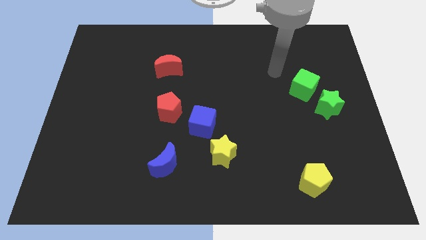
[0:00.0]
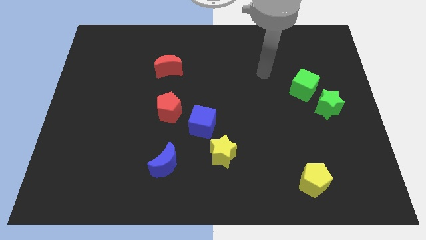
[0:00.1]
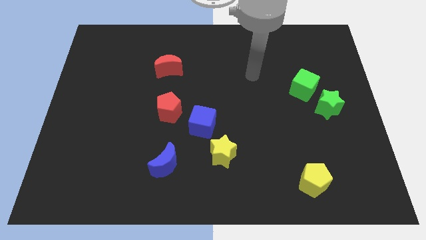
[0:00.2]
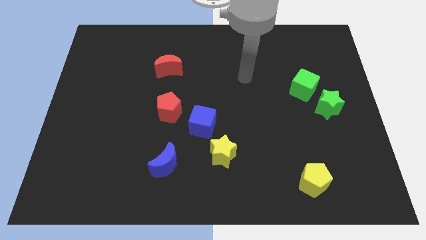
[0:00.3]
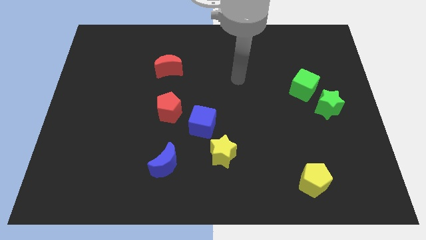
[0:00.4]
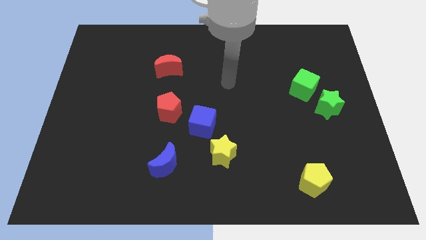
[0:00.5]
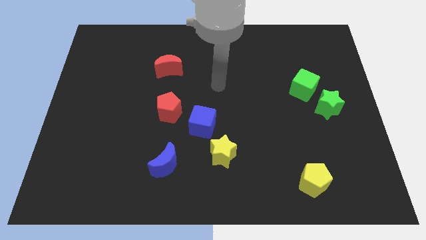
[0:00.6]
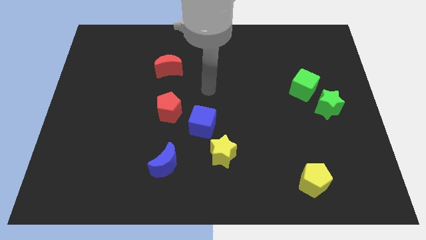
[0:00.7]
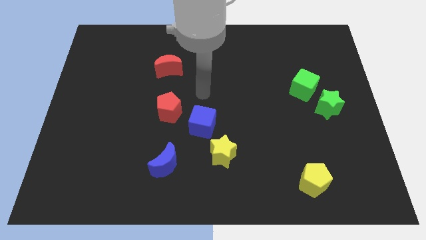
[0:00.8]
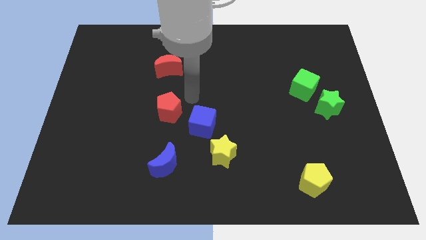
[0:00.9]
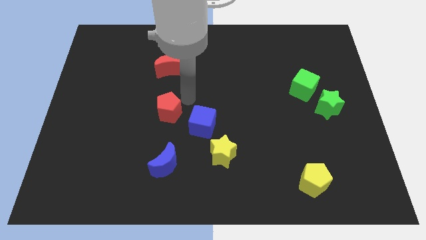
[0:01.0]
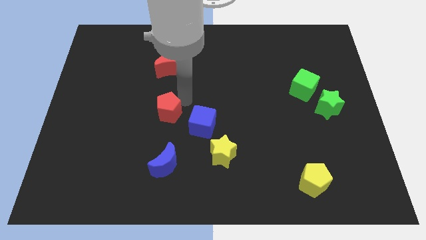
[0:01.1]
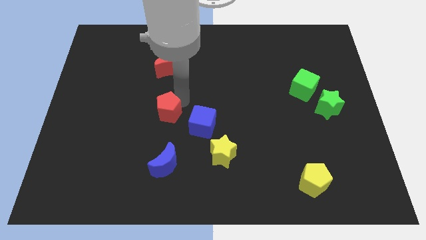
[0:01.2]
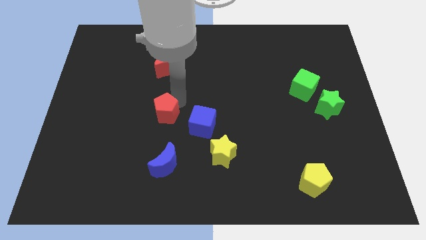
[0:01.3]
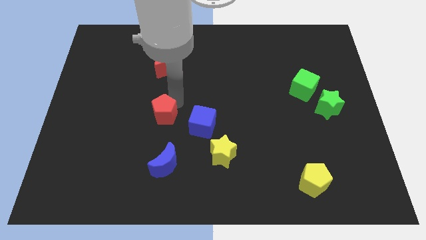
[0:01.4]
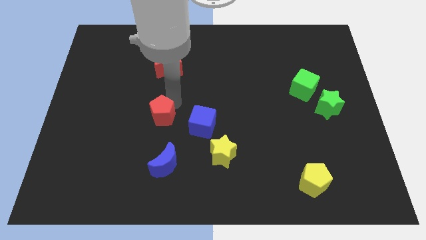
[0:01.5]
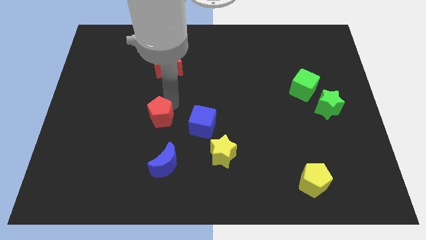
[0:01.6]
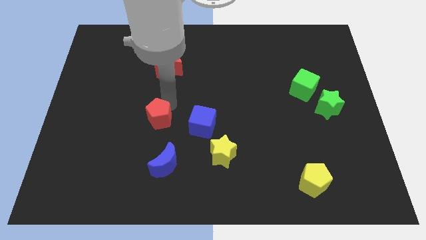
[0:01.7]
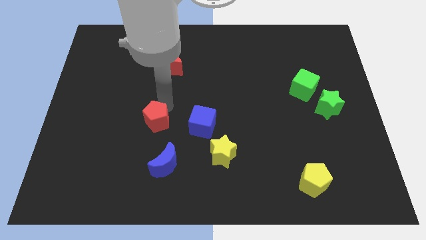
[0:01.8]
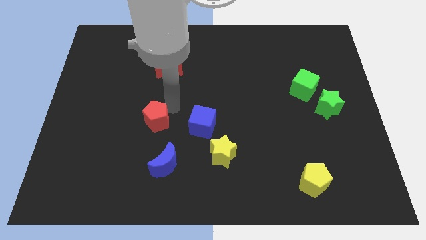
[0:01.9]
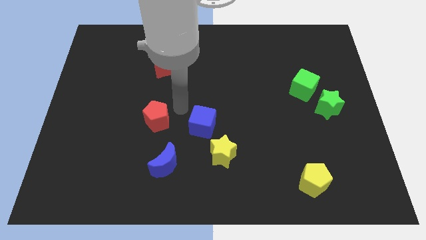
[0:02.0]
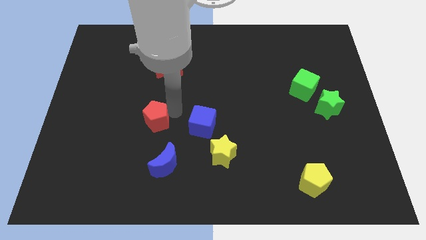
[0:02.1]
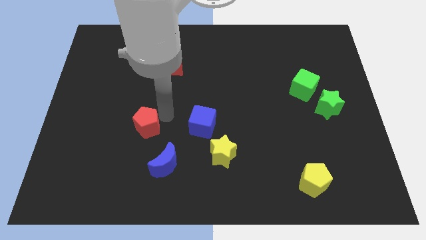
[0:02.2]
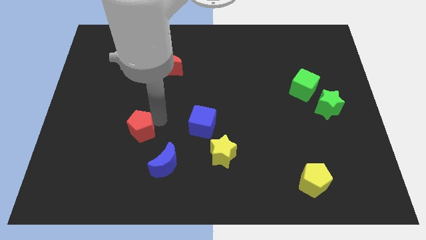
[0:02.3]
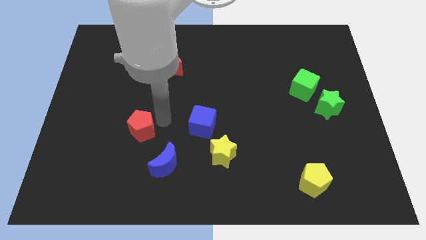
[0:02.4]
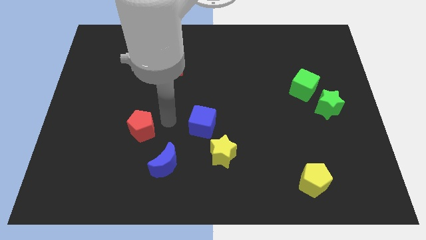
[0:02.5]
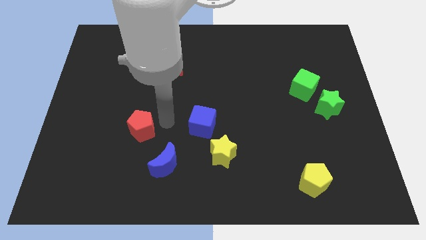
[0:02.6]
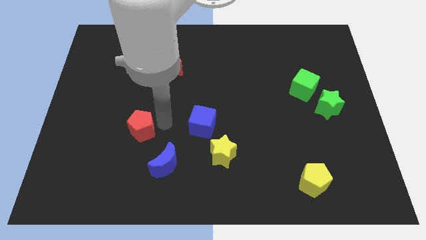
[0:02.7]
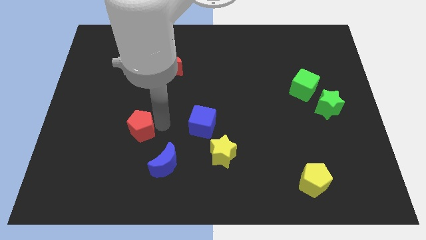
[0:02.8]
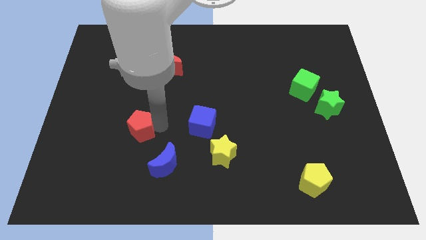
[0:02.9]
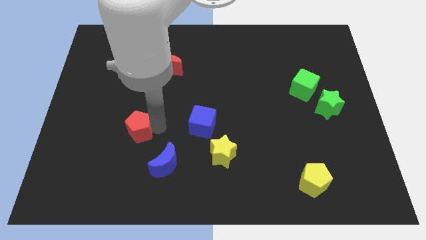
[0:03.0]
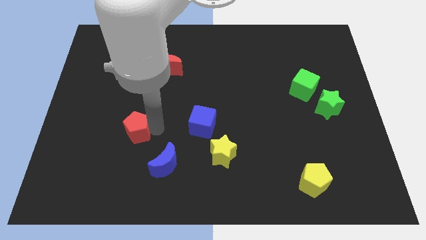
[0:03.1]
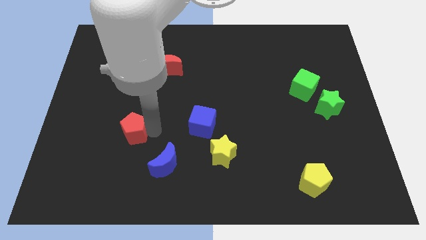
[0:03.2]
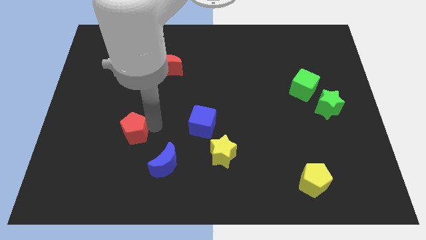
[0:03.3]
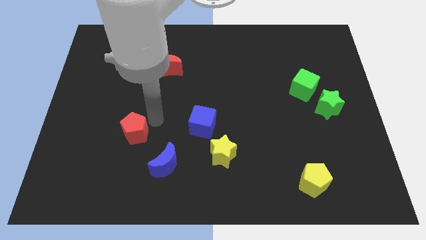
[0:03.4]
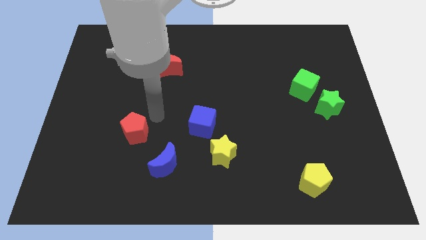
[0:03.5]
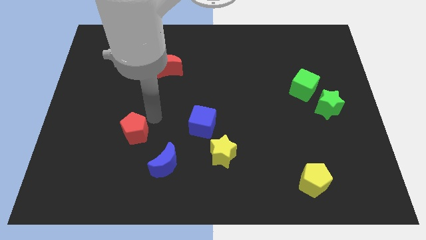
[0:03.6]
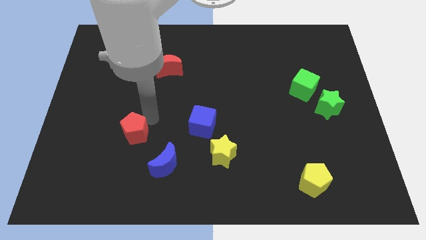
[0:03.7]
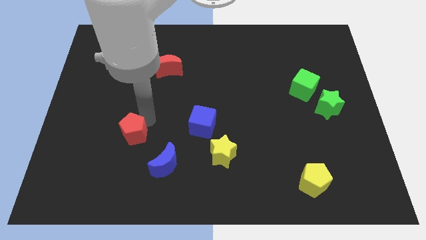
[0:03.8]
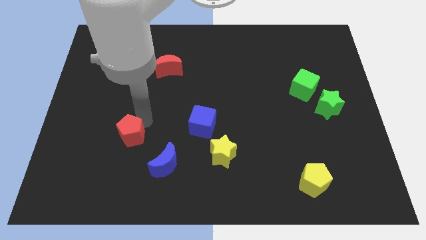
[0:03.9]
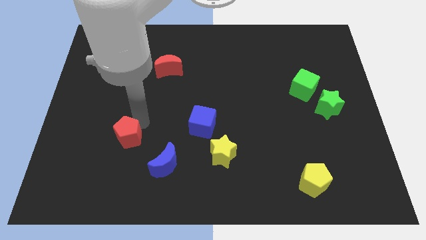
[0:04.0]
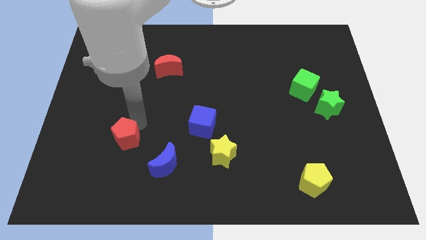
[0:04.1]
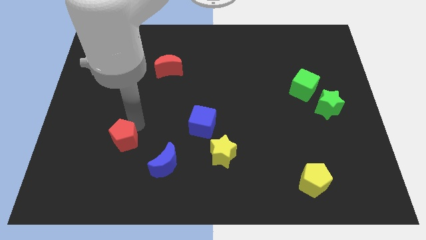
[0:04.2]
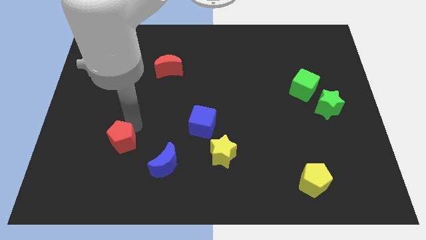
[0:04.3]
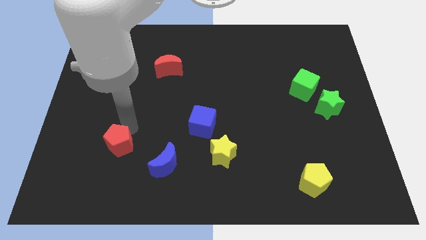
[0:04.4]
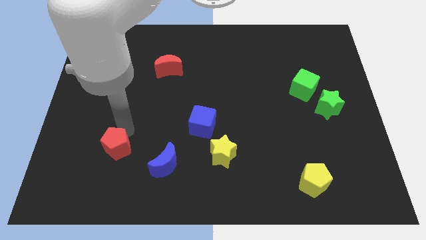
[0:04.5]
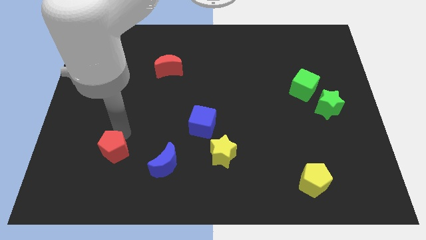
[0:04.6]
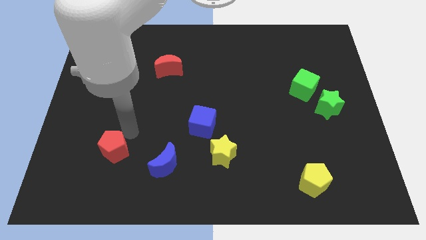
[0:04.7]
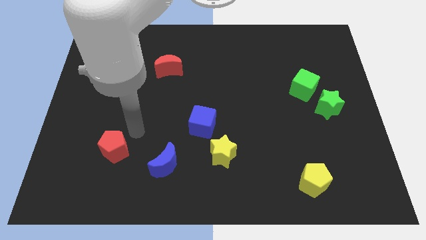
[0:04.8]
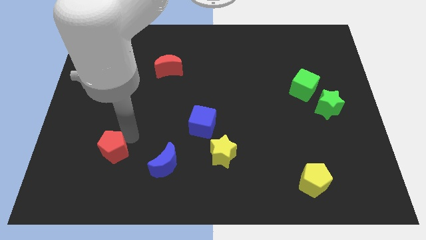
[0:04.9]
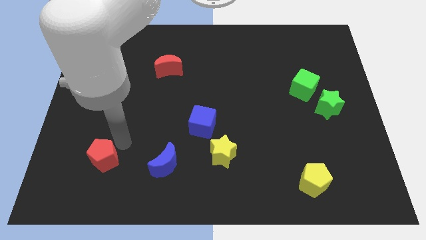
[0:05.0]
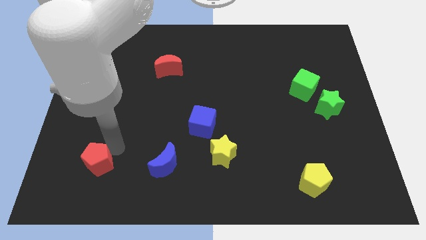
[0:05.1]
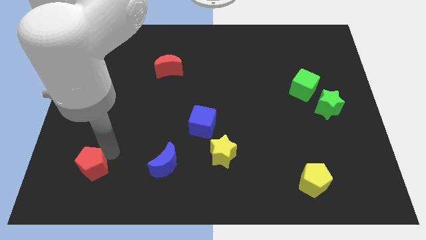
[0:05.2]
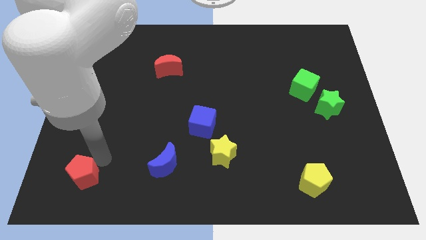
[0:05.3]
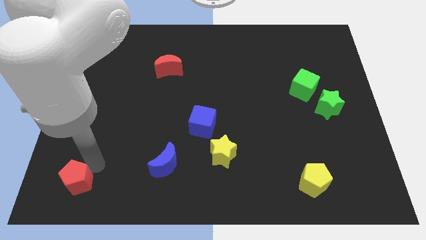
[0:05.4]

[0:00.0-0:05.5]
slide the red pentagon to the bottom left corner

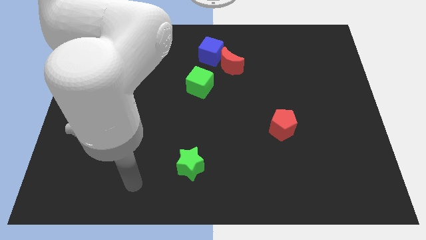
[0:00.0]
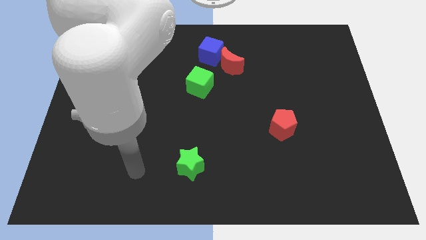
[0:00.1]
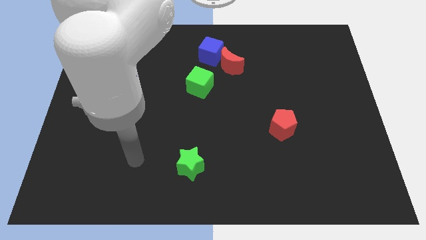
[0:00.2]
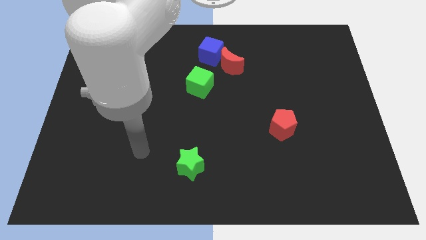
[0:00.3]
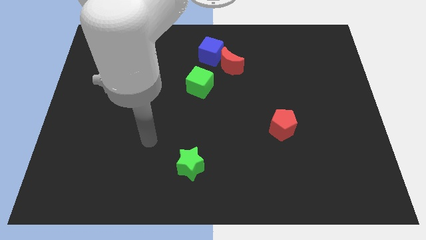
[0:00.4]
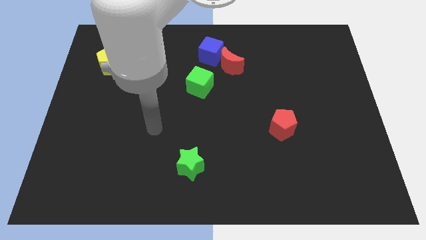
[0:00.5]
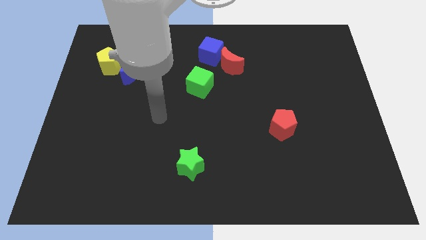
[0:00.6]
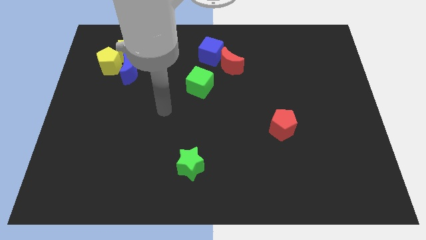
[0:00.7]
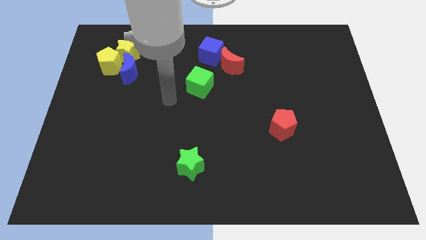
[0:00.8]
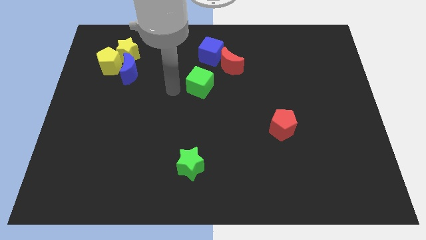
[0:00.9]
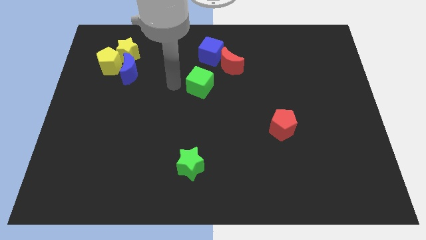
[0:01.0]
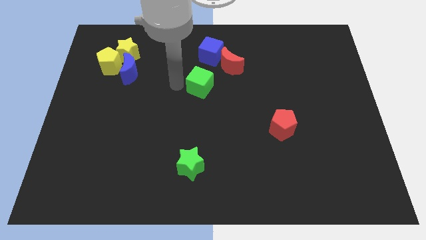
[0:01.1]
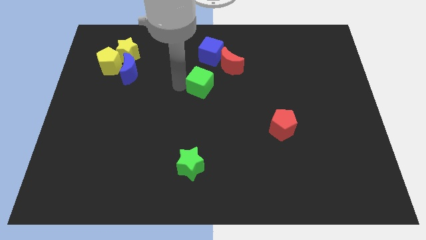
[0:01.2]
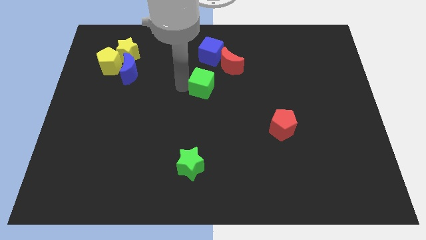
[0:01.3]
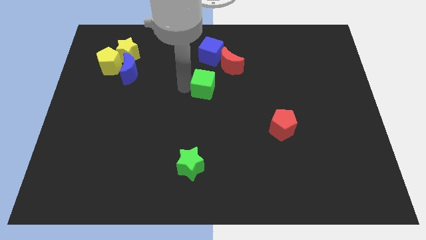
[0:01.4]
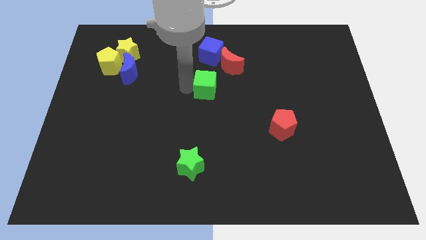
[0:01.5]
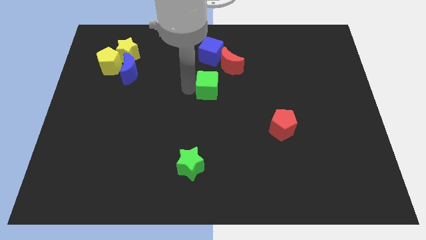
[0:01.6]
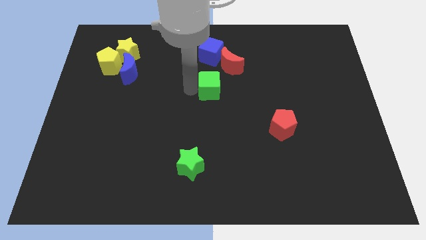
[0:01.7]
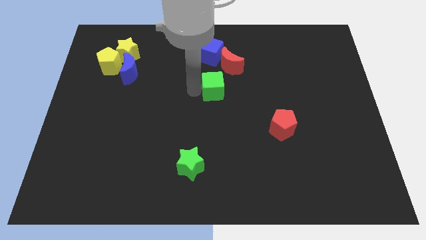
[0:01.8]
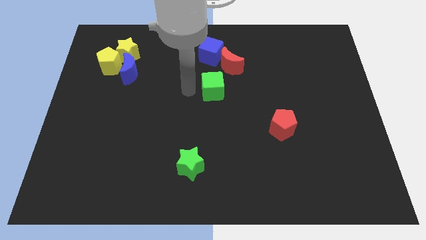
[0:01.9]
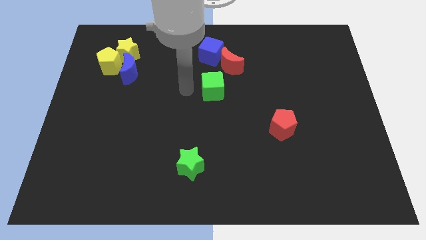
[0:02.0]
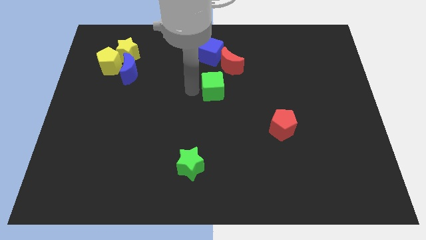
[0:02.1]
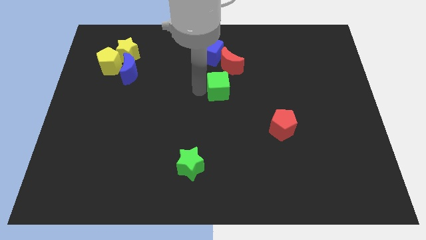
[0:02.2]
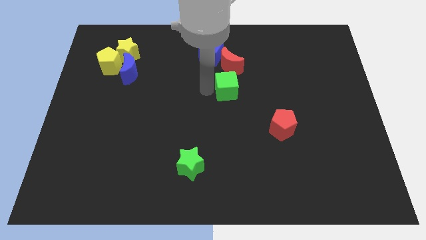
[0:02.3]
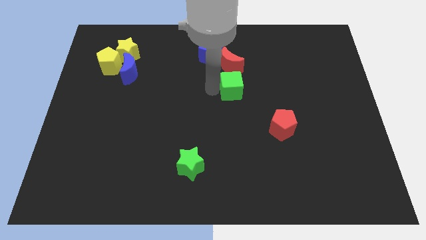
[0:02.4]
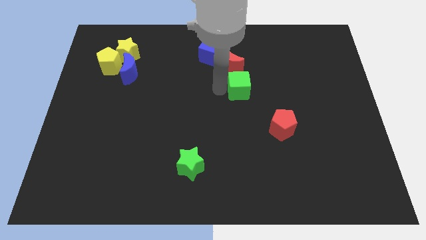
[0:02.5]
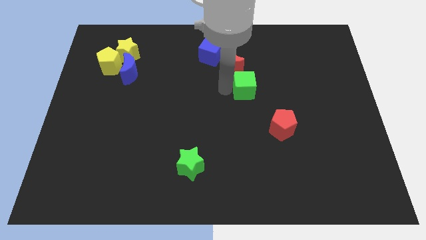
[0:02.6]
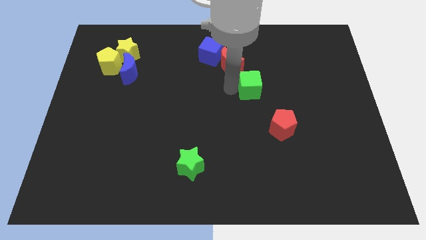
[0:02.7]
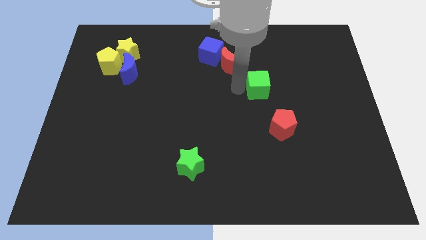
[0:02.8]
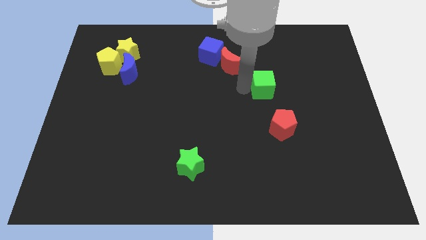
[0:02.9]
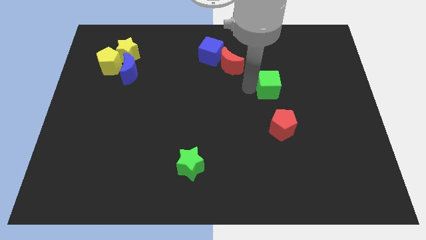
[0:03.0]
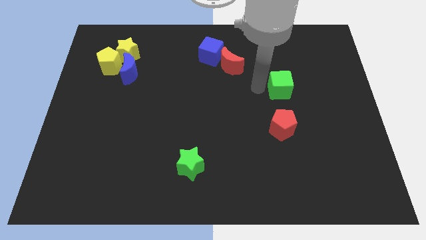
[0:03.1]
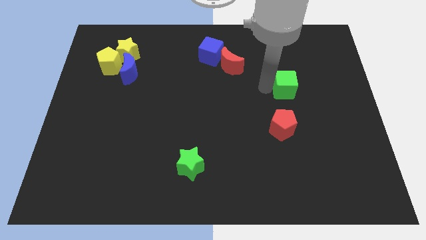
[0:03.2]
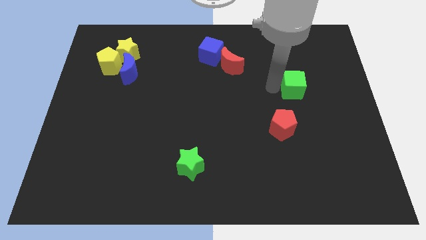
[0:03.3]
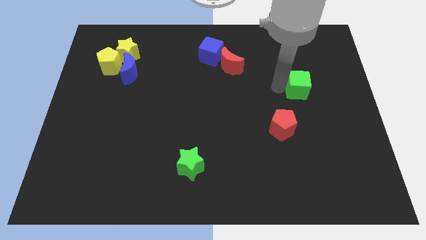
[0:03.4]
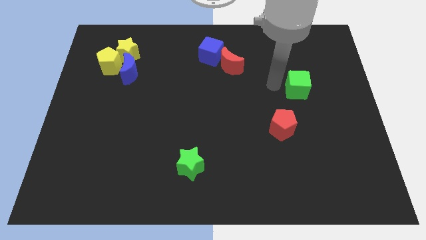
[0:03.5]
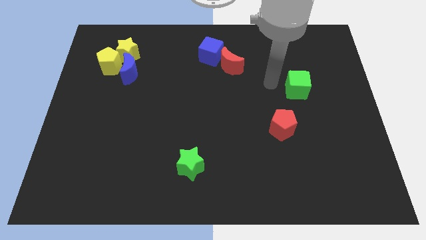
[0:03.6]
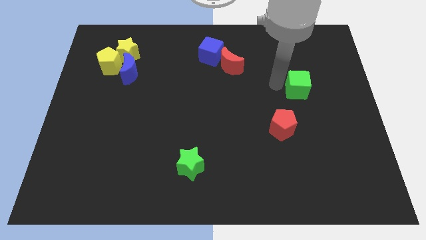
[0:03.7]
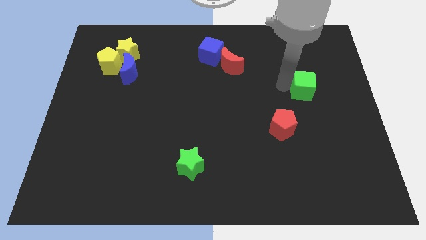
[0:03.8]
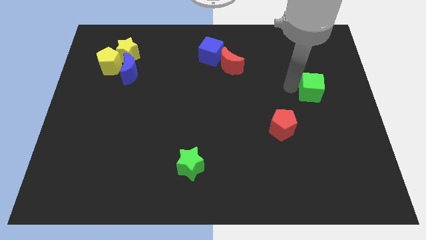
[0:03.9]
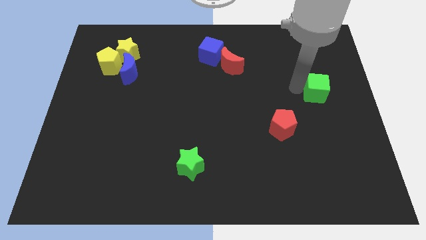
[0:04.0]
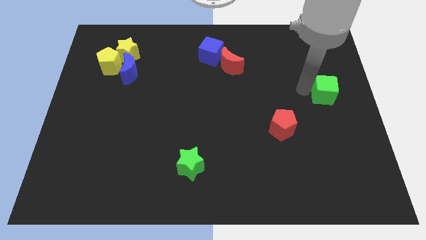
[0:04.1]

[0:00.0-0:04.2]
move the green cube to the right side of the board
